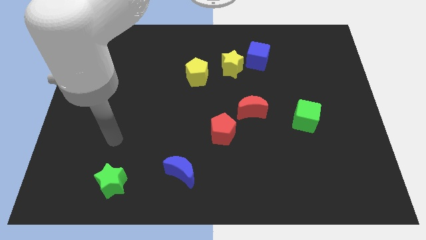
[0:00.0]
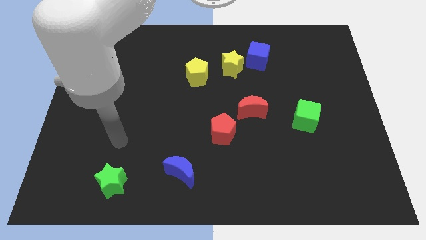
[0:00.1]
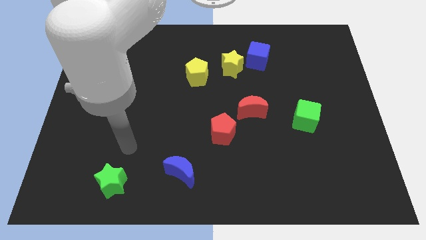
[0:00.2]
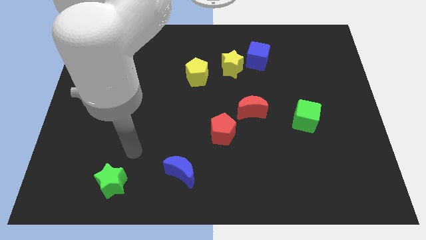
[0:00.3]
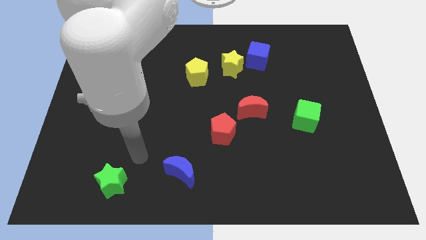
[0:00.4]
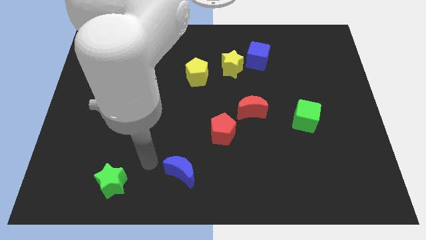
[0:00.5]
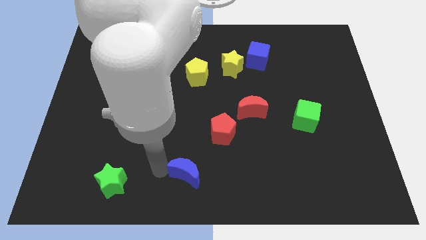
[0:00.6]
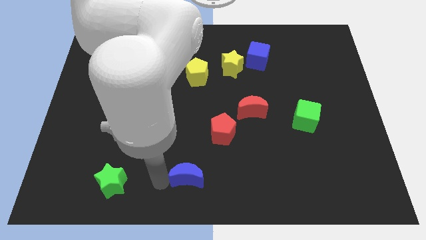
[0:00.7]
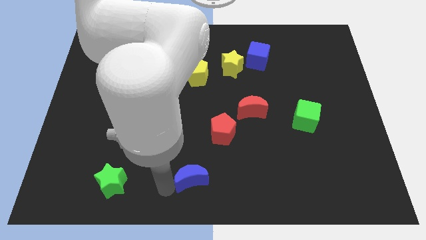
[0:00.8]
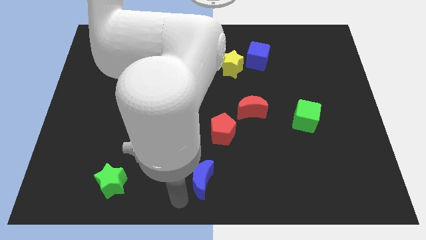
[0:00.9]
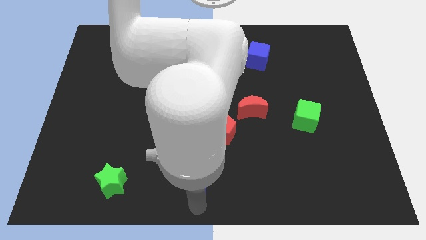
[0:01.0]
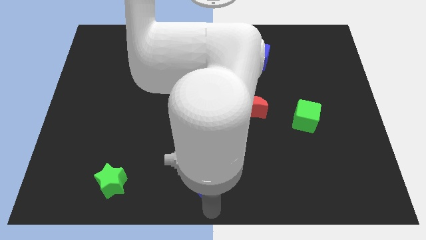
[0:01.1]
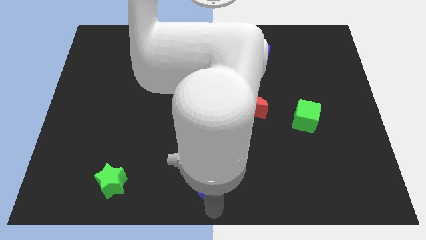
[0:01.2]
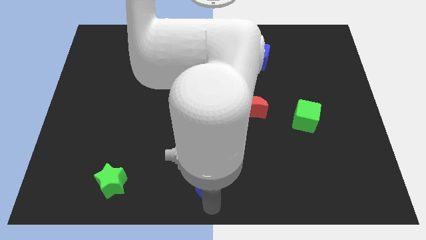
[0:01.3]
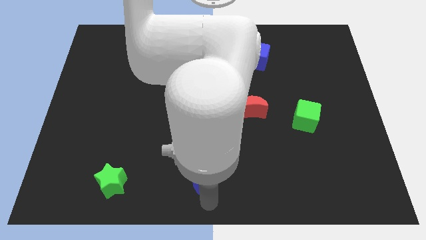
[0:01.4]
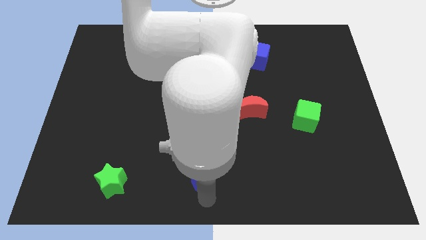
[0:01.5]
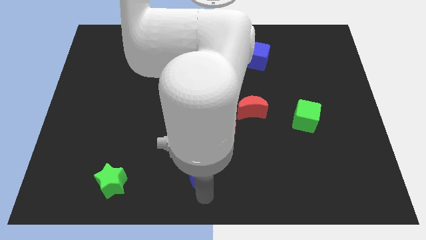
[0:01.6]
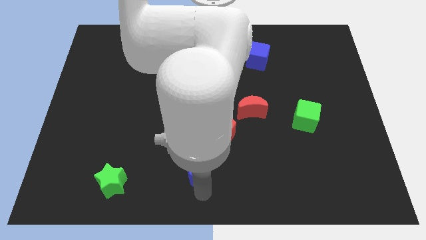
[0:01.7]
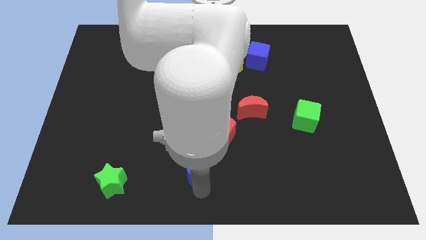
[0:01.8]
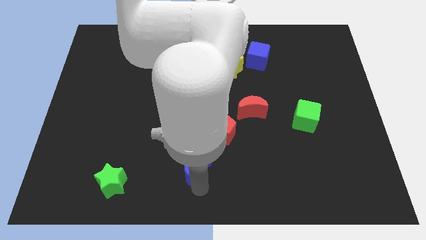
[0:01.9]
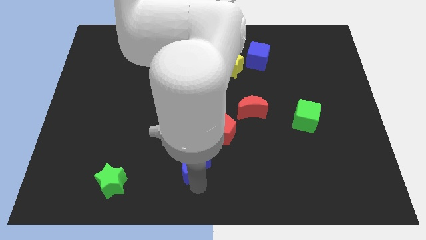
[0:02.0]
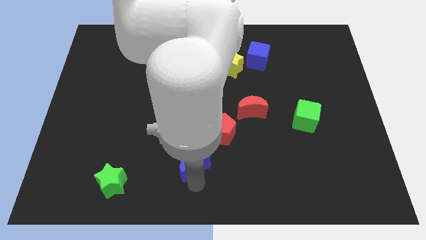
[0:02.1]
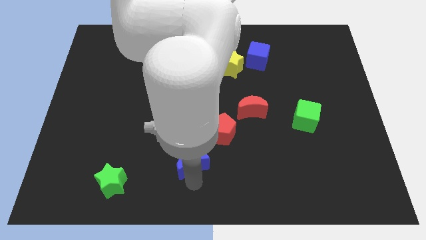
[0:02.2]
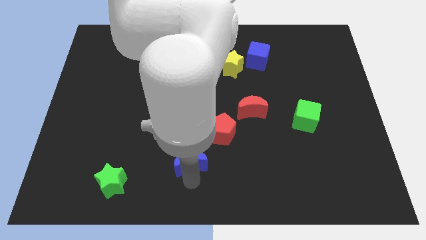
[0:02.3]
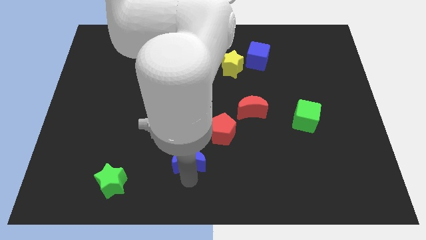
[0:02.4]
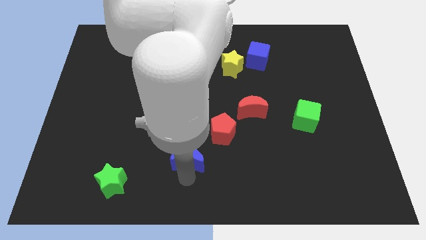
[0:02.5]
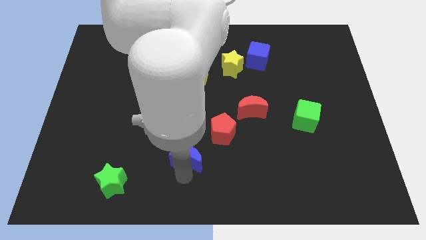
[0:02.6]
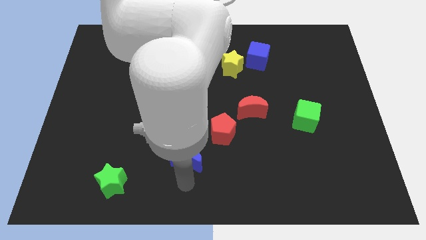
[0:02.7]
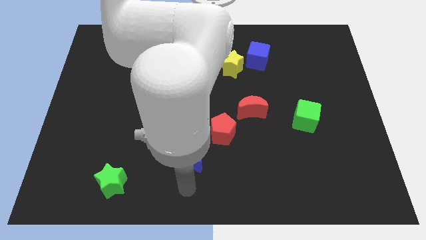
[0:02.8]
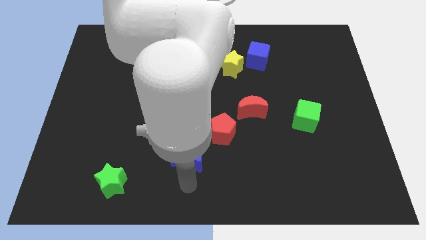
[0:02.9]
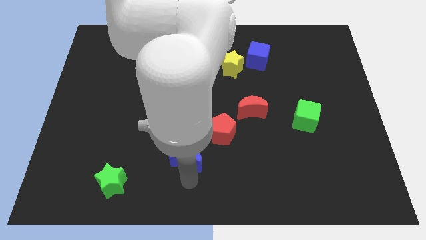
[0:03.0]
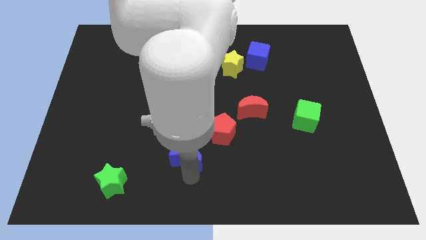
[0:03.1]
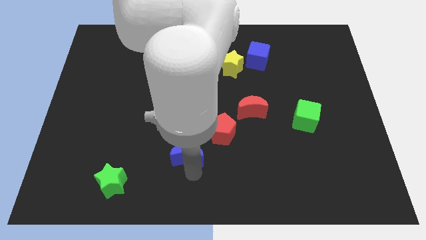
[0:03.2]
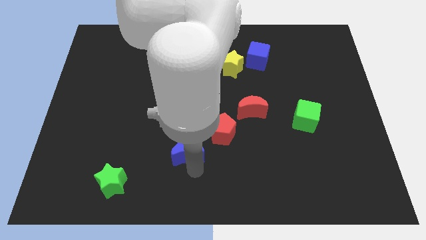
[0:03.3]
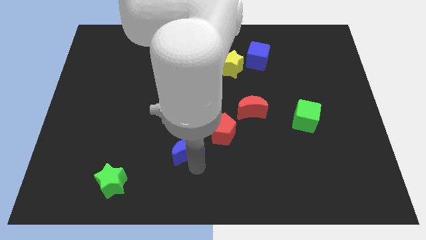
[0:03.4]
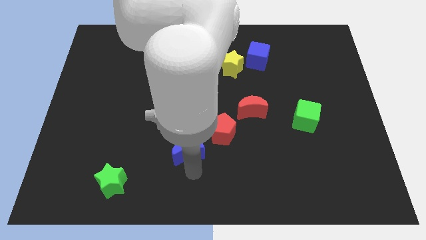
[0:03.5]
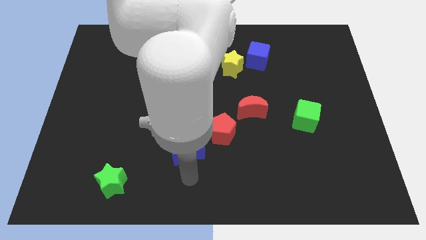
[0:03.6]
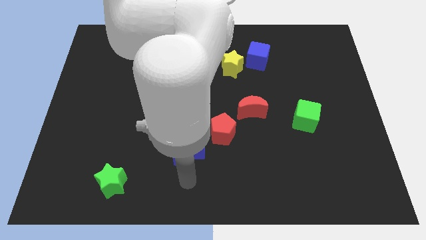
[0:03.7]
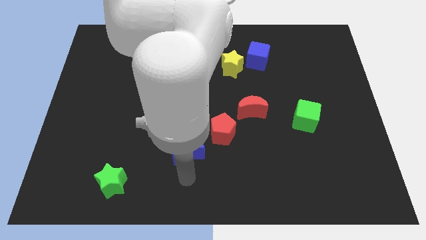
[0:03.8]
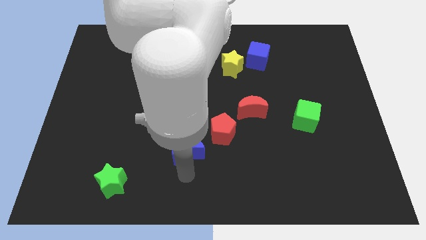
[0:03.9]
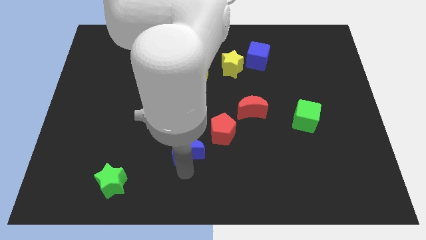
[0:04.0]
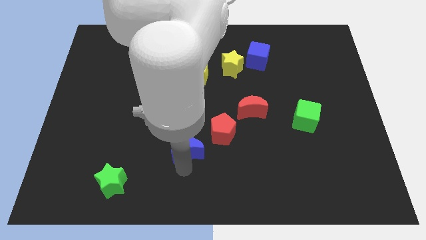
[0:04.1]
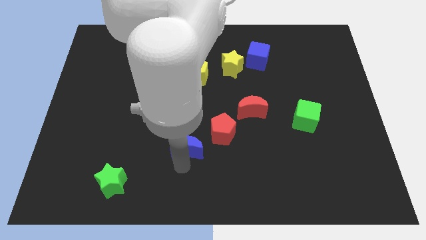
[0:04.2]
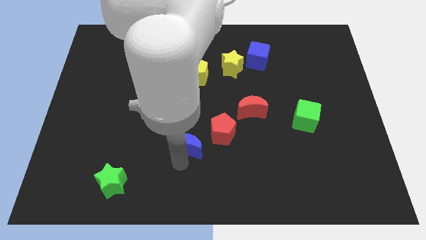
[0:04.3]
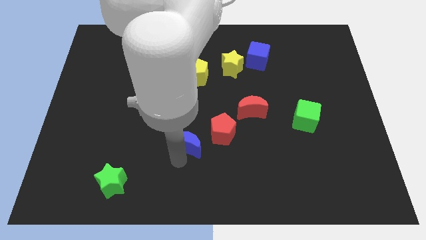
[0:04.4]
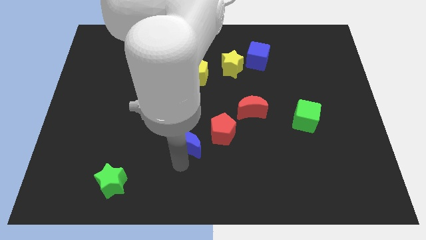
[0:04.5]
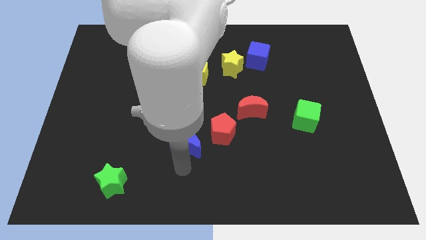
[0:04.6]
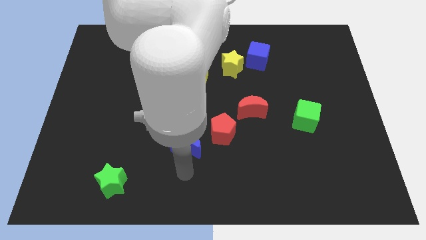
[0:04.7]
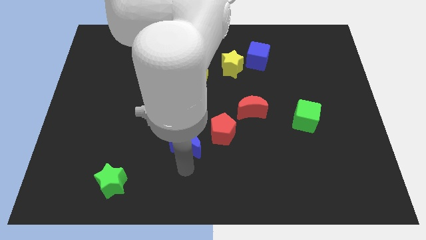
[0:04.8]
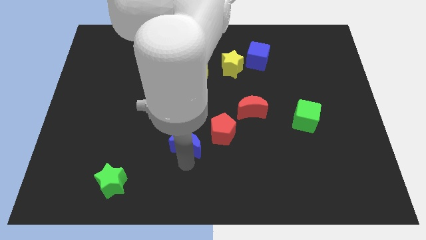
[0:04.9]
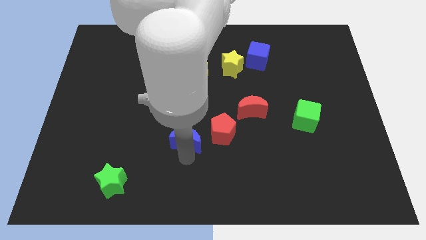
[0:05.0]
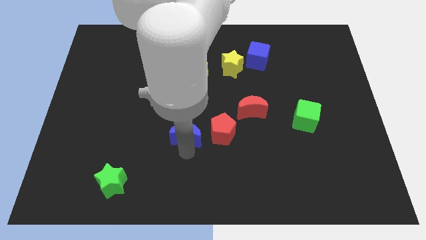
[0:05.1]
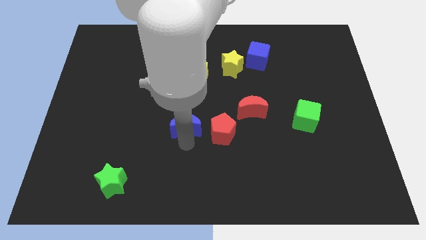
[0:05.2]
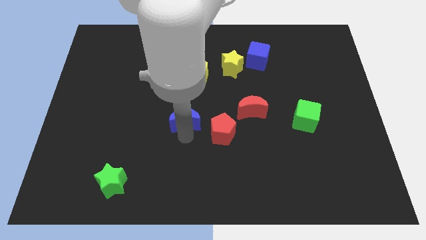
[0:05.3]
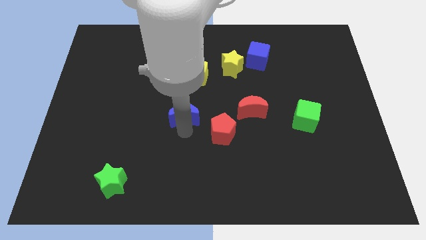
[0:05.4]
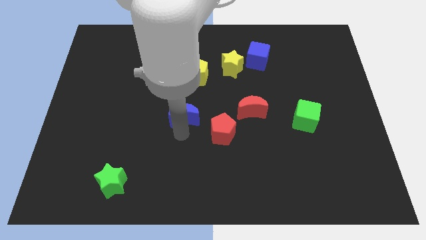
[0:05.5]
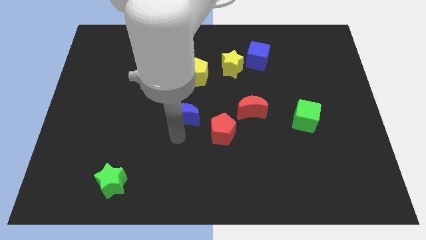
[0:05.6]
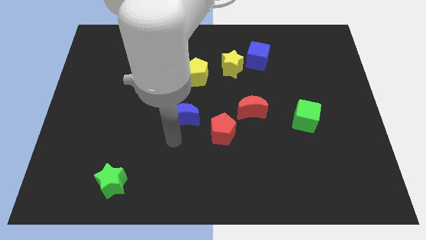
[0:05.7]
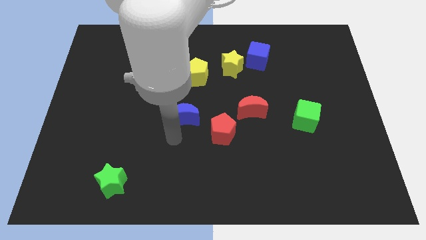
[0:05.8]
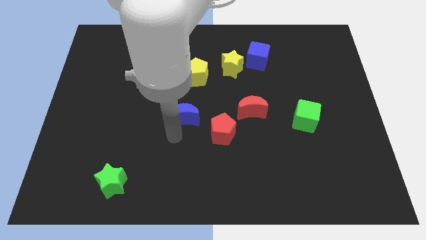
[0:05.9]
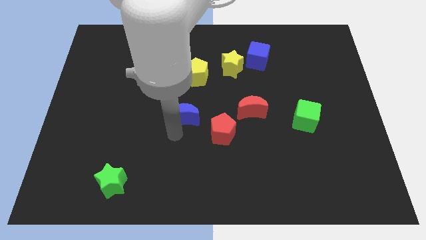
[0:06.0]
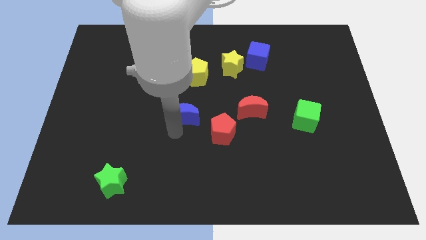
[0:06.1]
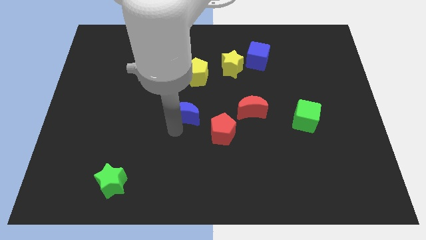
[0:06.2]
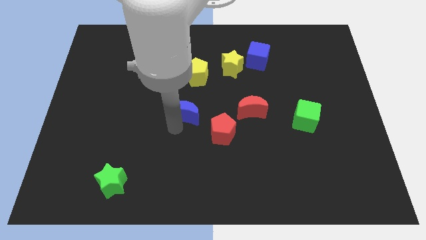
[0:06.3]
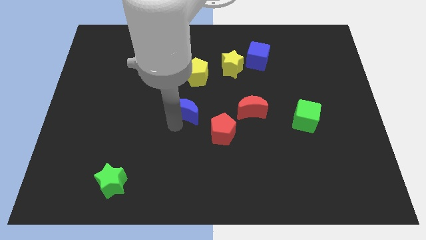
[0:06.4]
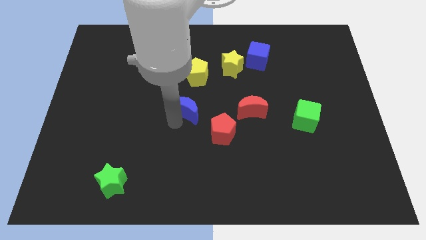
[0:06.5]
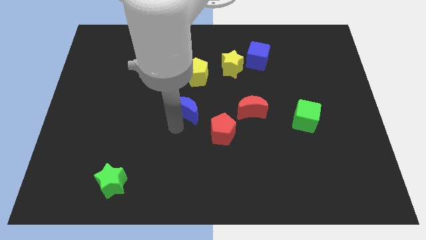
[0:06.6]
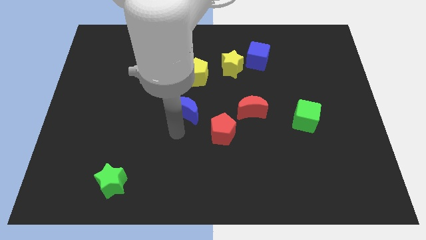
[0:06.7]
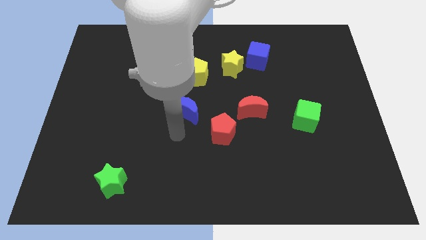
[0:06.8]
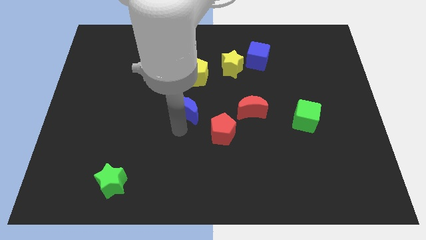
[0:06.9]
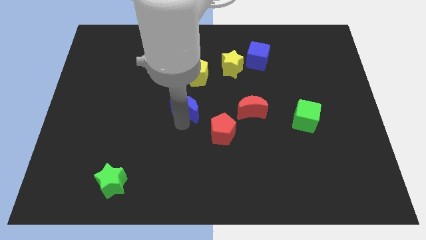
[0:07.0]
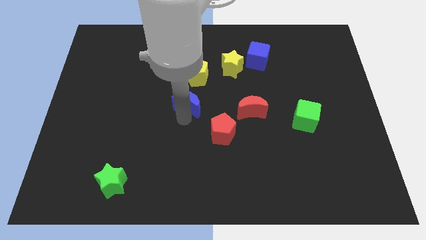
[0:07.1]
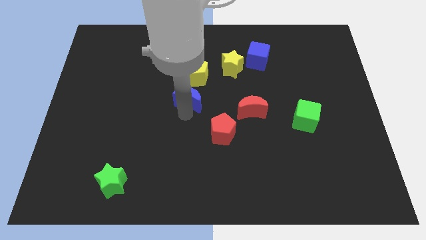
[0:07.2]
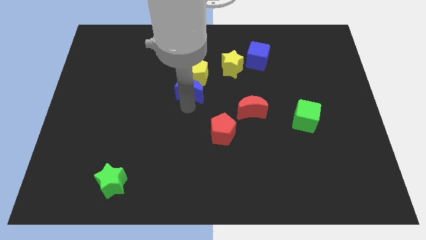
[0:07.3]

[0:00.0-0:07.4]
push the blue moon close to the yellow pentagon
